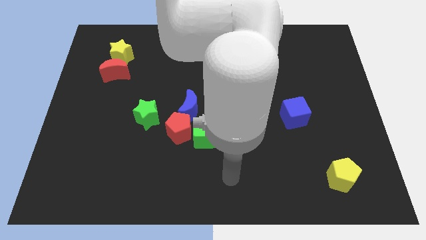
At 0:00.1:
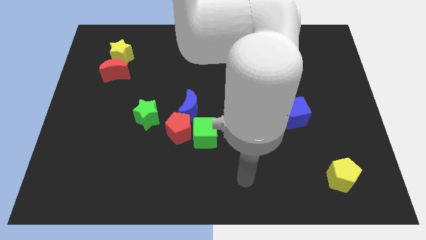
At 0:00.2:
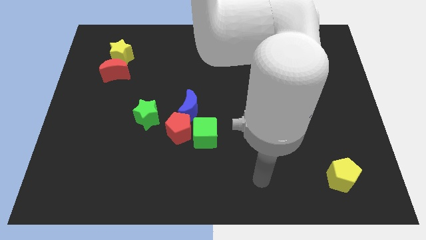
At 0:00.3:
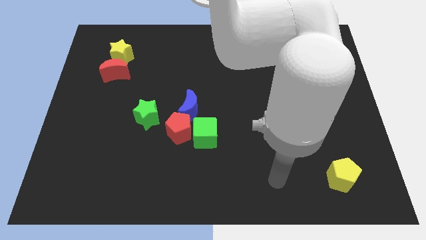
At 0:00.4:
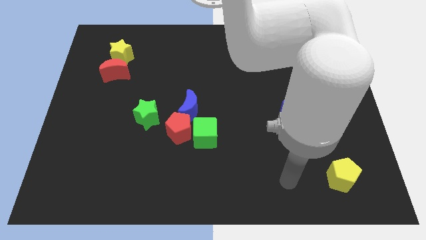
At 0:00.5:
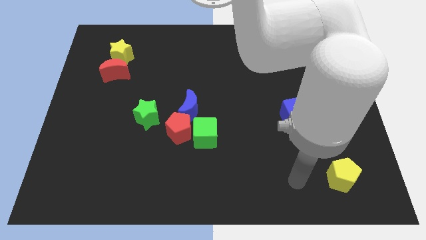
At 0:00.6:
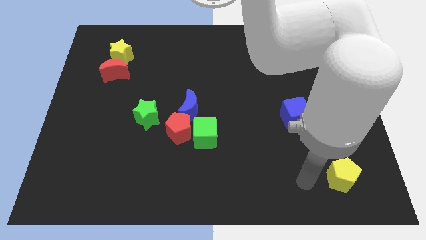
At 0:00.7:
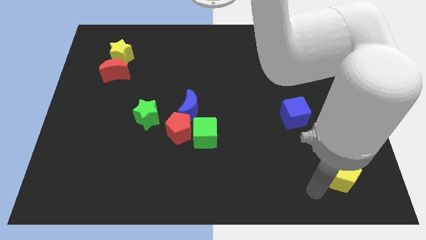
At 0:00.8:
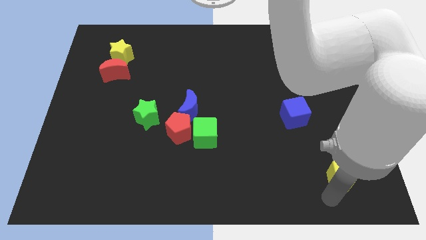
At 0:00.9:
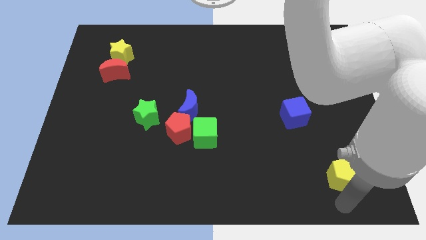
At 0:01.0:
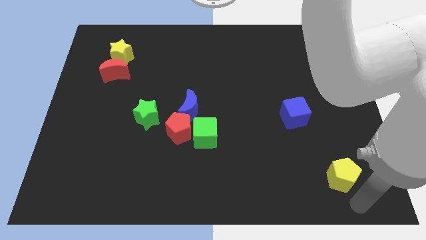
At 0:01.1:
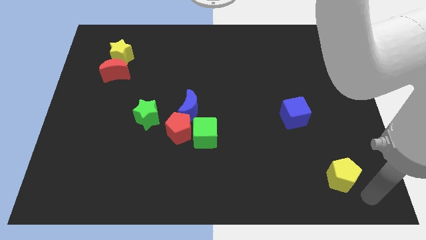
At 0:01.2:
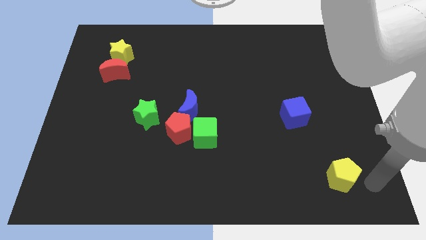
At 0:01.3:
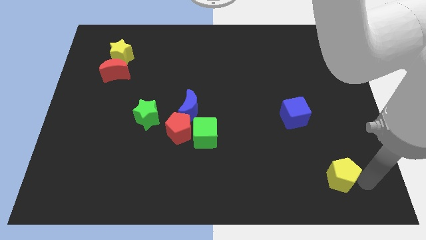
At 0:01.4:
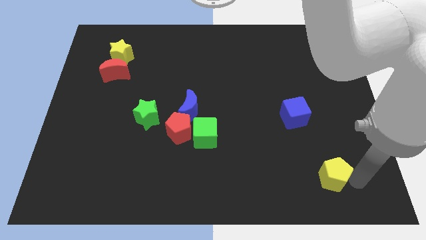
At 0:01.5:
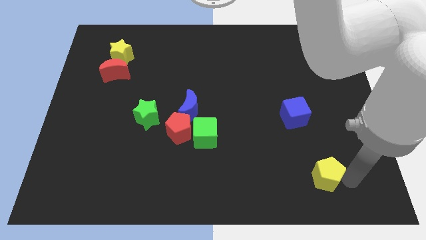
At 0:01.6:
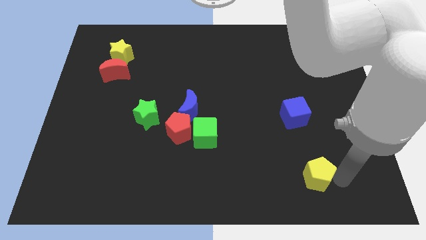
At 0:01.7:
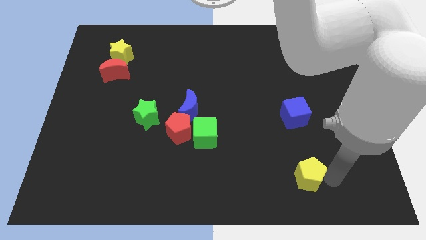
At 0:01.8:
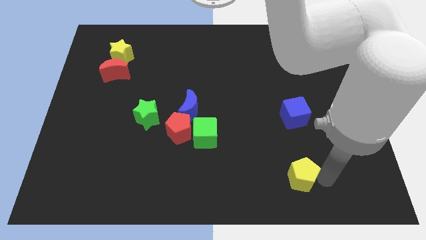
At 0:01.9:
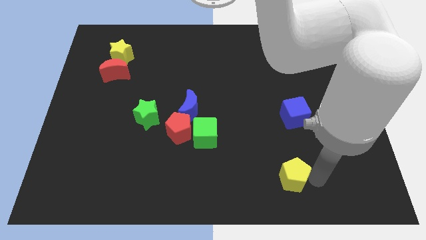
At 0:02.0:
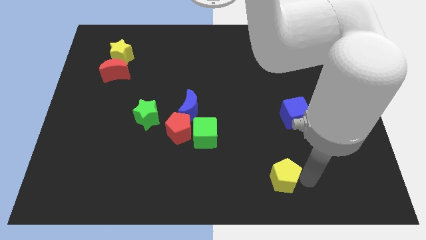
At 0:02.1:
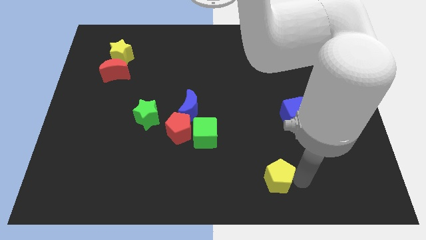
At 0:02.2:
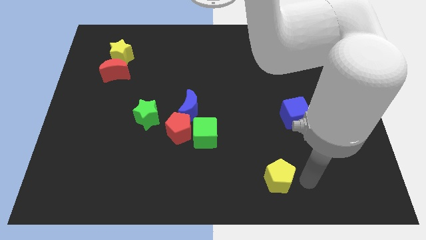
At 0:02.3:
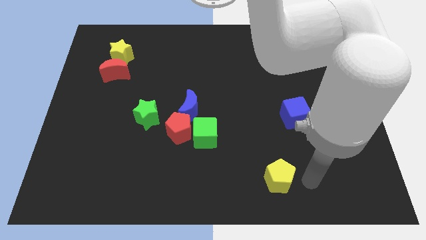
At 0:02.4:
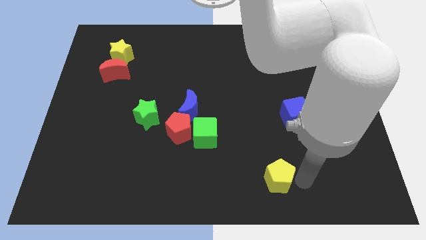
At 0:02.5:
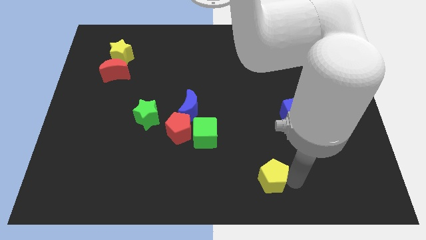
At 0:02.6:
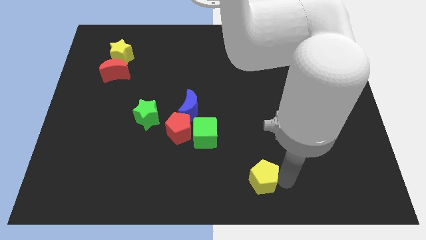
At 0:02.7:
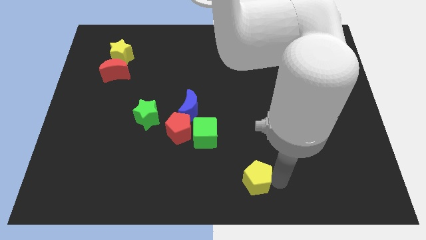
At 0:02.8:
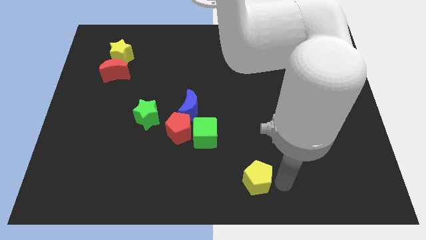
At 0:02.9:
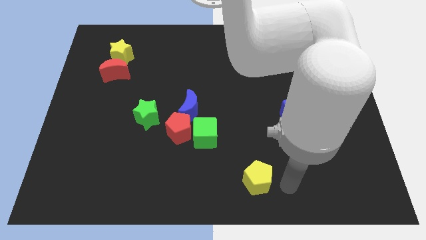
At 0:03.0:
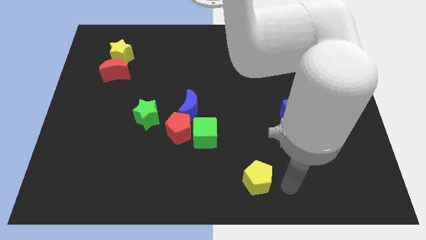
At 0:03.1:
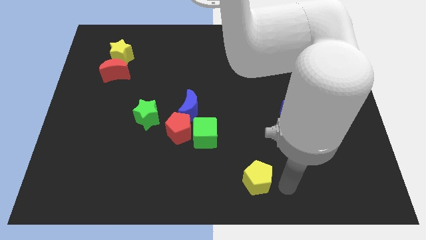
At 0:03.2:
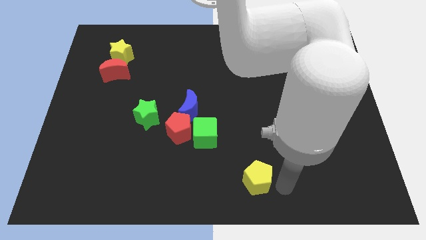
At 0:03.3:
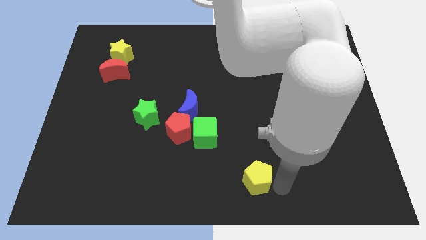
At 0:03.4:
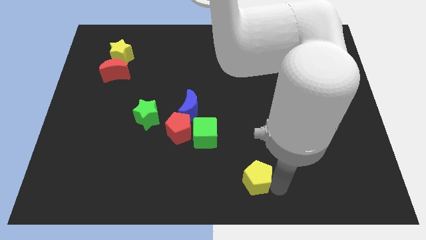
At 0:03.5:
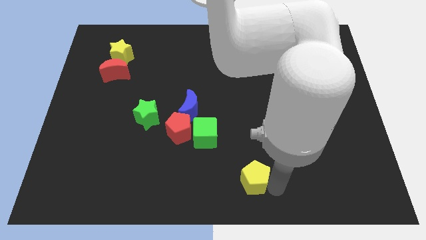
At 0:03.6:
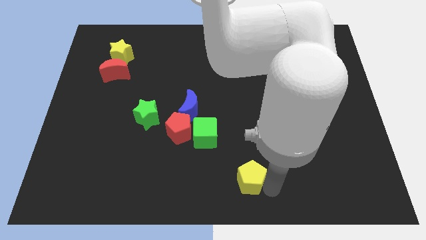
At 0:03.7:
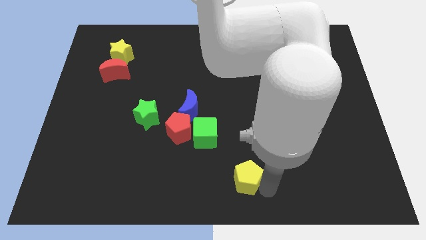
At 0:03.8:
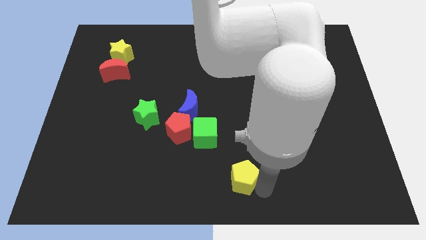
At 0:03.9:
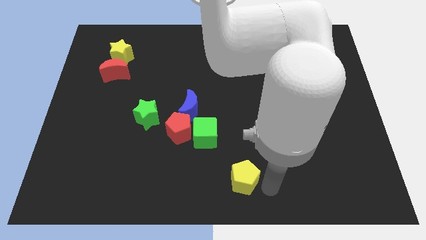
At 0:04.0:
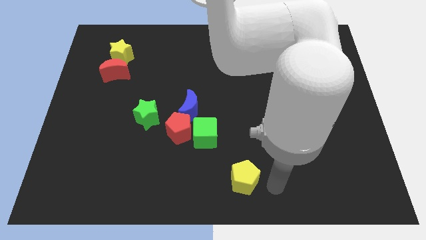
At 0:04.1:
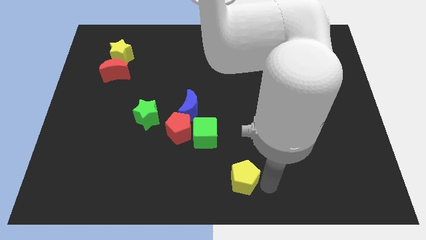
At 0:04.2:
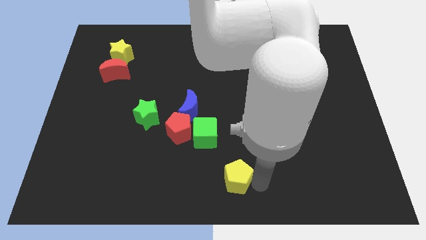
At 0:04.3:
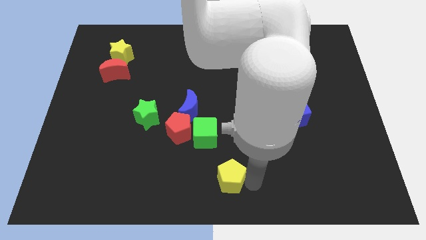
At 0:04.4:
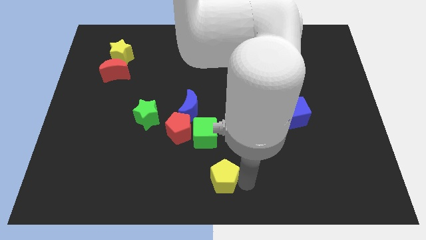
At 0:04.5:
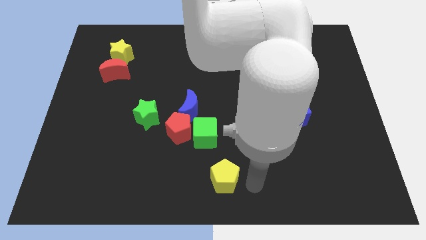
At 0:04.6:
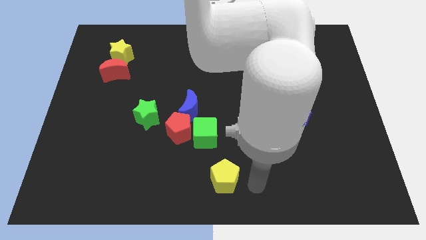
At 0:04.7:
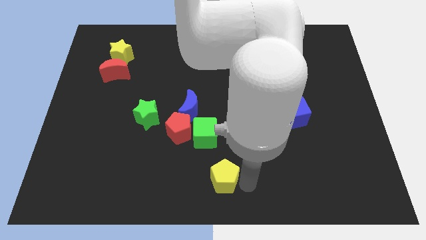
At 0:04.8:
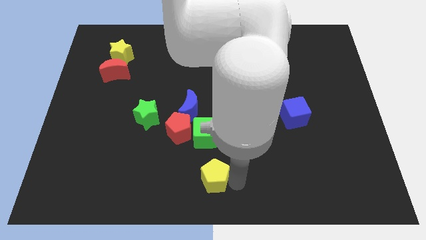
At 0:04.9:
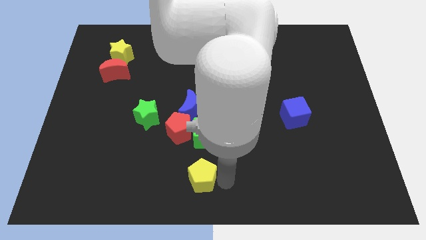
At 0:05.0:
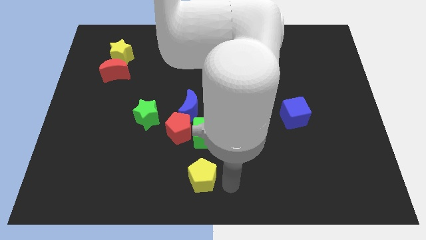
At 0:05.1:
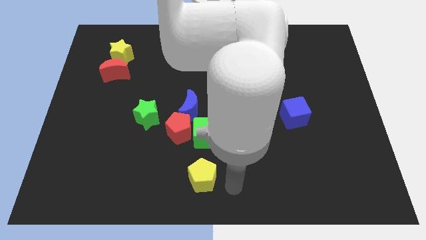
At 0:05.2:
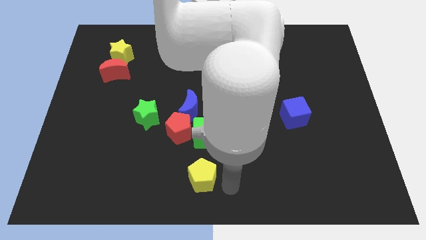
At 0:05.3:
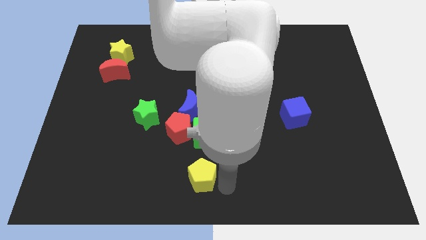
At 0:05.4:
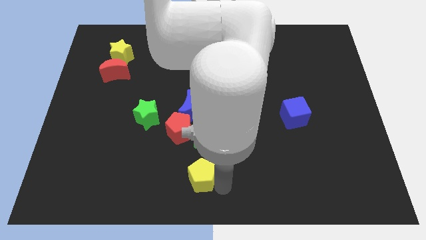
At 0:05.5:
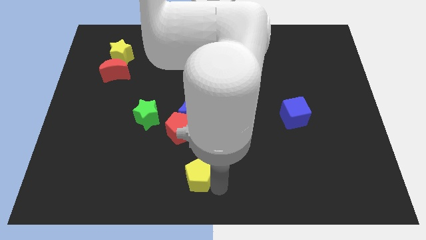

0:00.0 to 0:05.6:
put the yellow pentagon to the bottom side of the red pentagon

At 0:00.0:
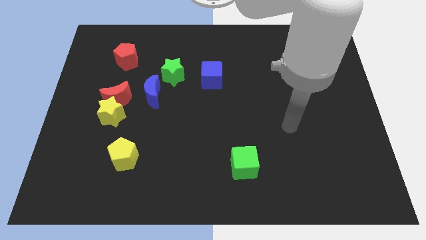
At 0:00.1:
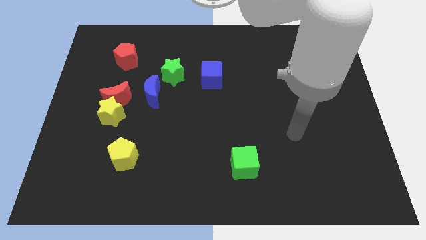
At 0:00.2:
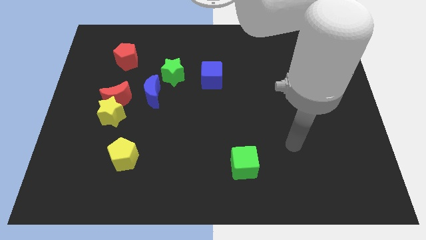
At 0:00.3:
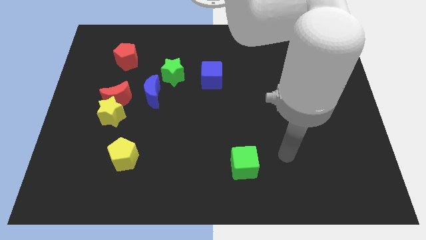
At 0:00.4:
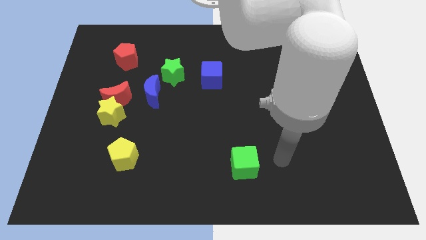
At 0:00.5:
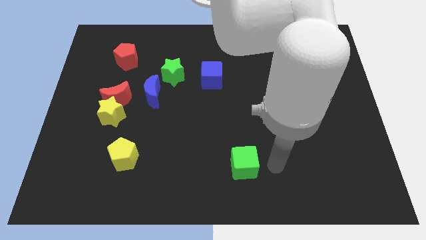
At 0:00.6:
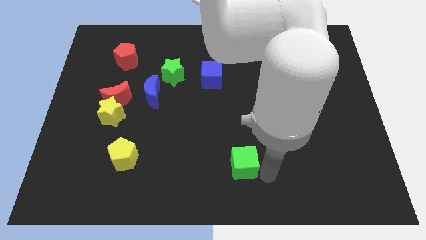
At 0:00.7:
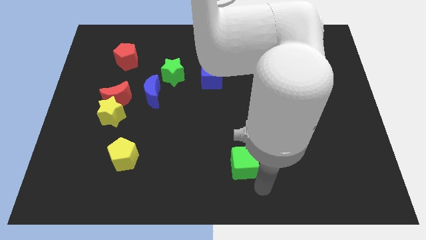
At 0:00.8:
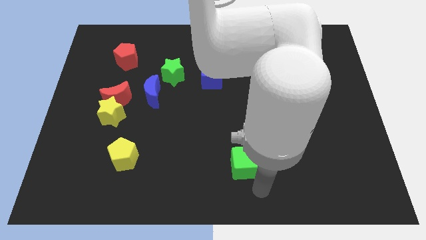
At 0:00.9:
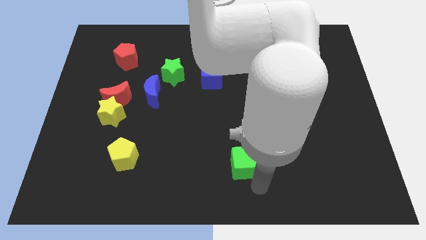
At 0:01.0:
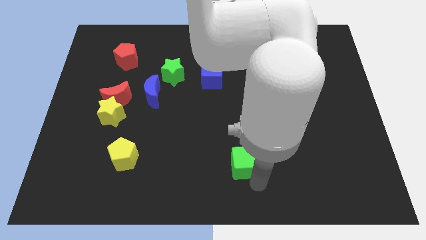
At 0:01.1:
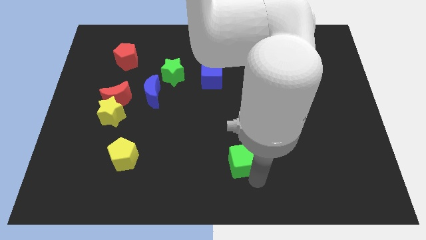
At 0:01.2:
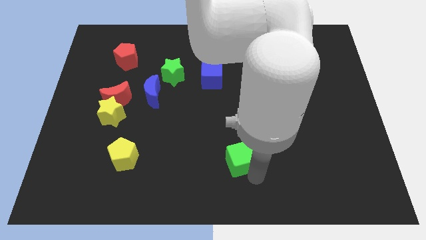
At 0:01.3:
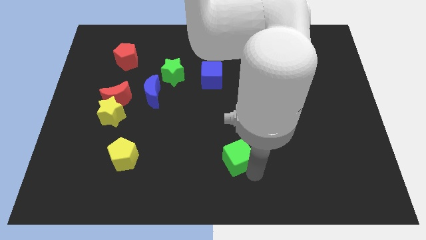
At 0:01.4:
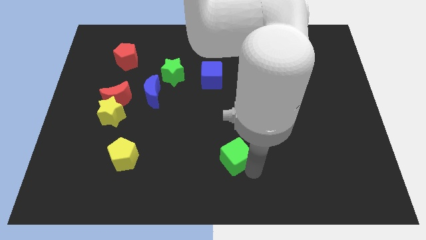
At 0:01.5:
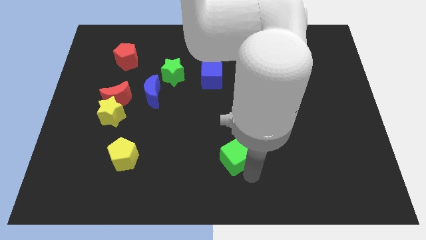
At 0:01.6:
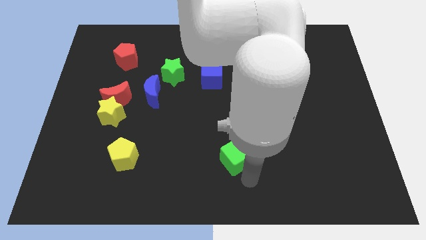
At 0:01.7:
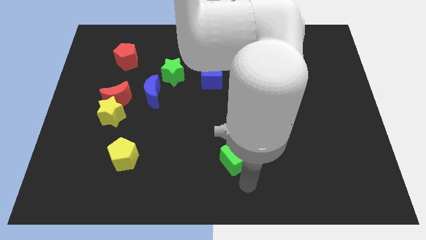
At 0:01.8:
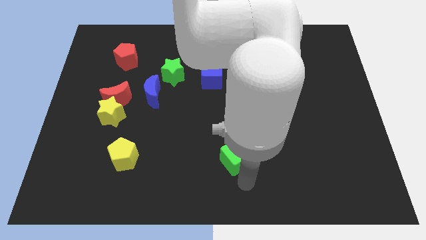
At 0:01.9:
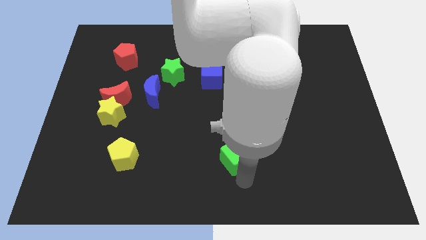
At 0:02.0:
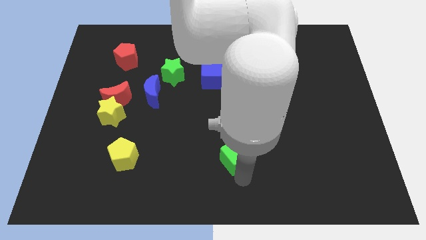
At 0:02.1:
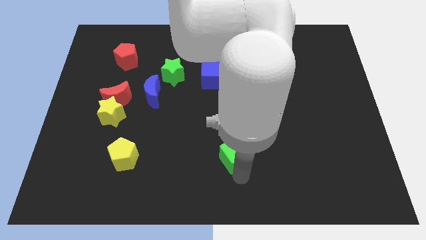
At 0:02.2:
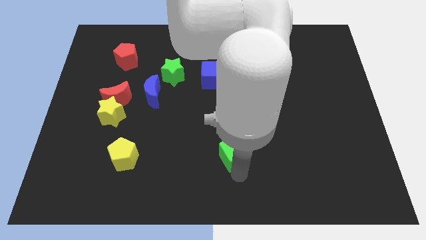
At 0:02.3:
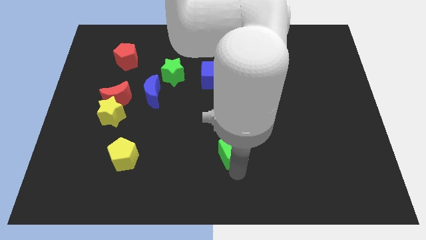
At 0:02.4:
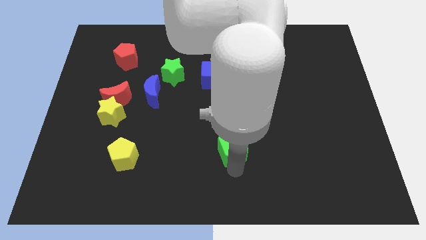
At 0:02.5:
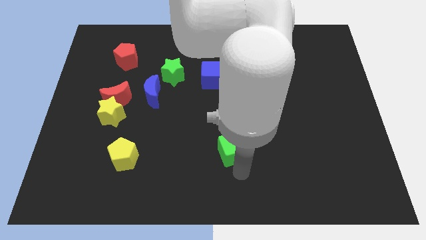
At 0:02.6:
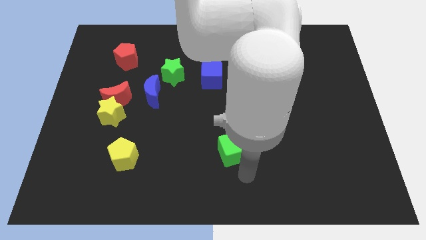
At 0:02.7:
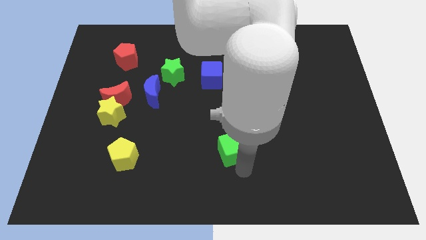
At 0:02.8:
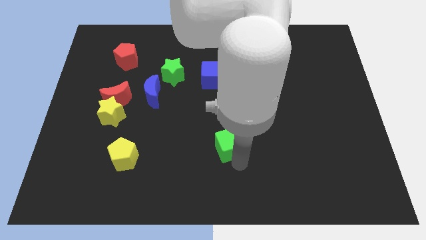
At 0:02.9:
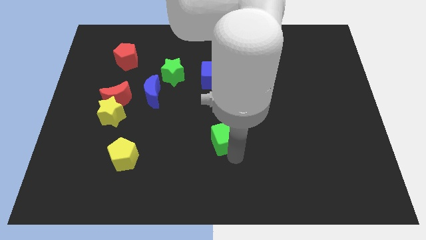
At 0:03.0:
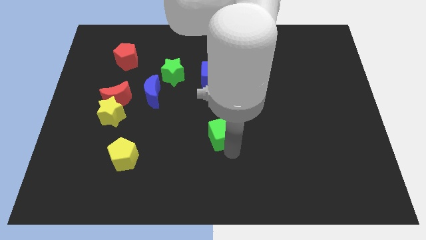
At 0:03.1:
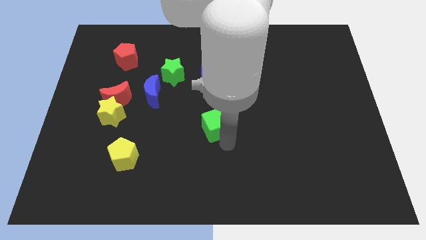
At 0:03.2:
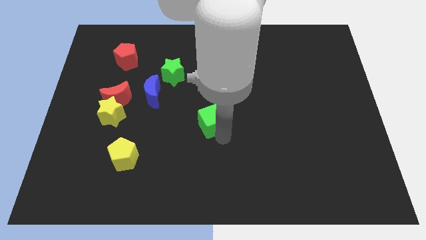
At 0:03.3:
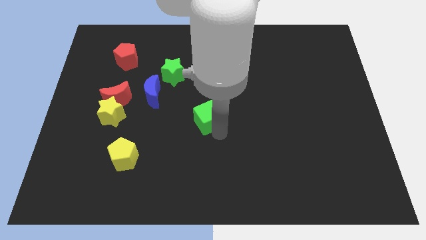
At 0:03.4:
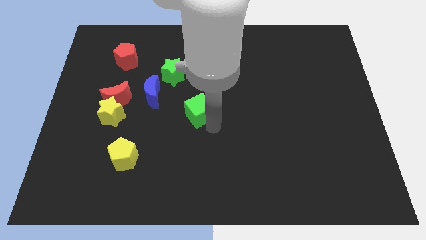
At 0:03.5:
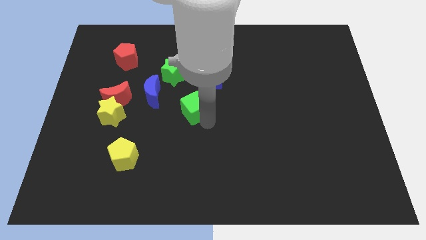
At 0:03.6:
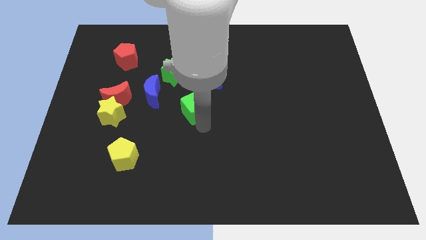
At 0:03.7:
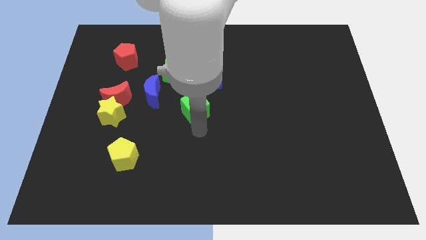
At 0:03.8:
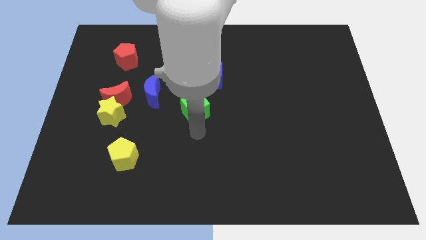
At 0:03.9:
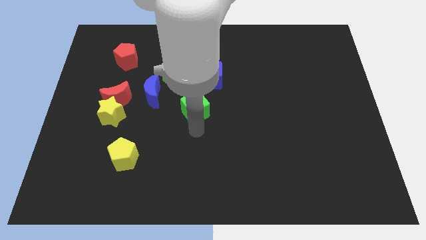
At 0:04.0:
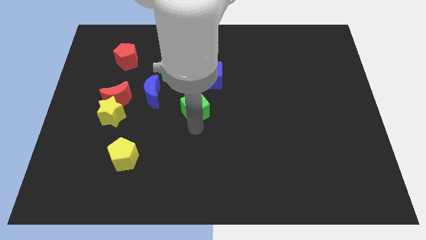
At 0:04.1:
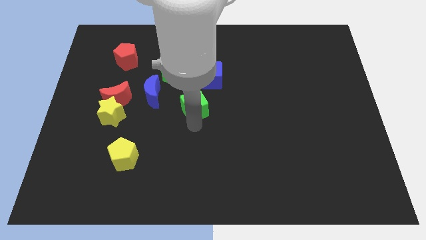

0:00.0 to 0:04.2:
slide the green cube diagonally down and to the right of the green star
